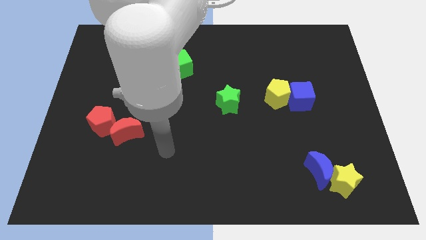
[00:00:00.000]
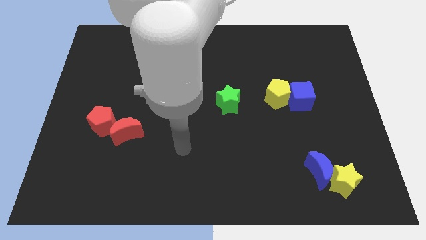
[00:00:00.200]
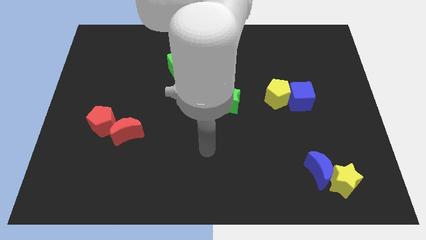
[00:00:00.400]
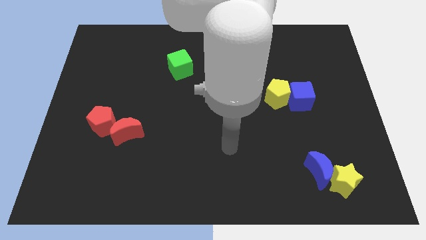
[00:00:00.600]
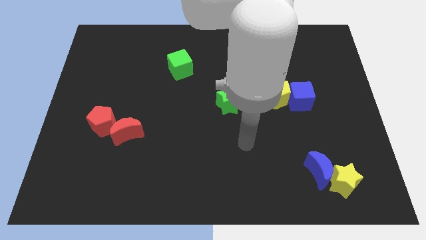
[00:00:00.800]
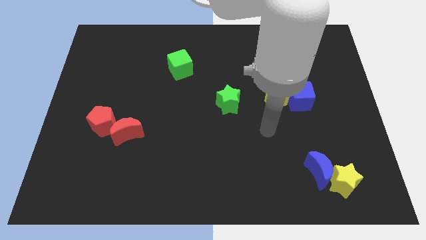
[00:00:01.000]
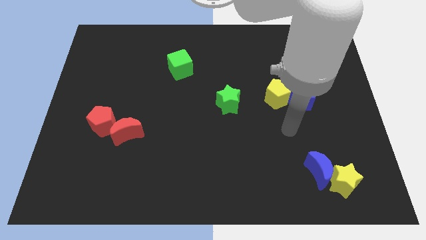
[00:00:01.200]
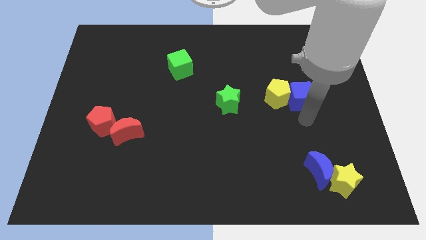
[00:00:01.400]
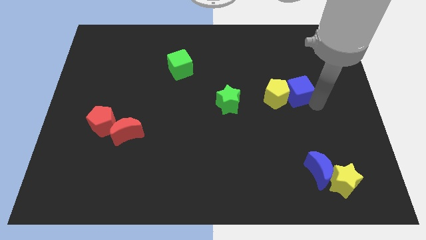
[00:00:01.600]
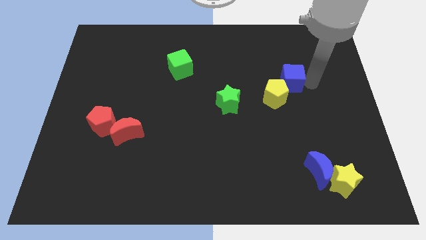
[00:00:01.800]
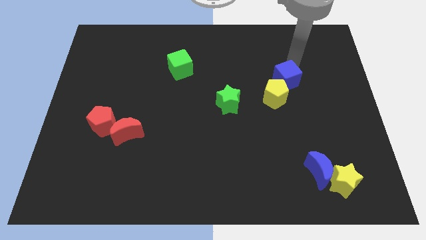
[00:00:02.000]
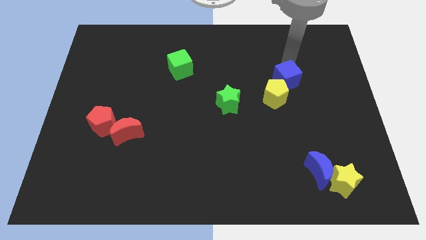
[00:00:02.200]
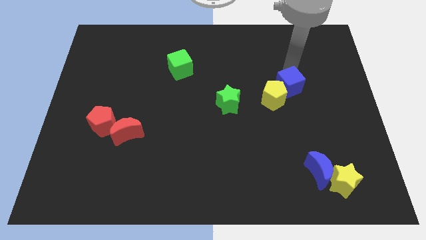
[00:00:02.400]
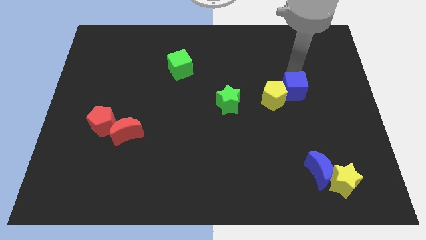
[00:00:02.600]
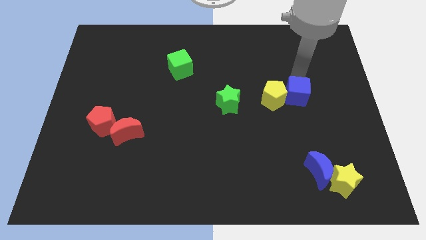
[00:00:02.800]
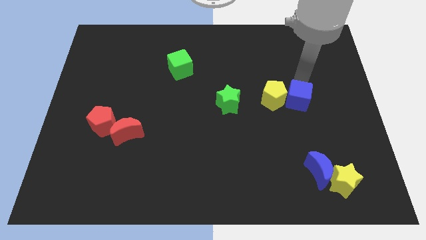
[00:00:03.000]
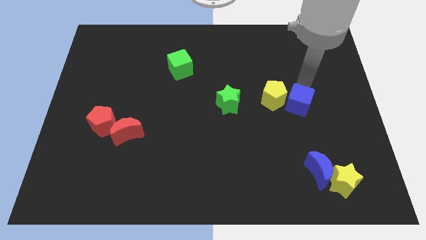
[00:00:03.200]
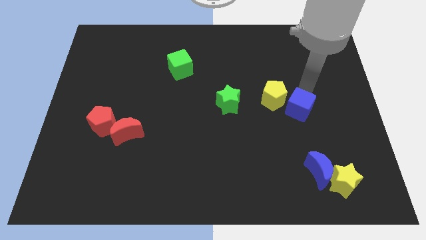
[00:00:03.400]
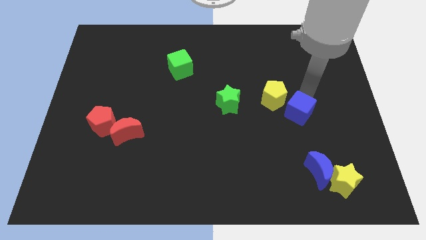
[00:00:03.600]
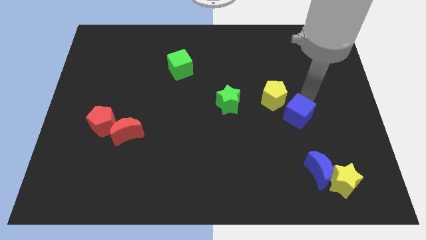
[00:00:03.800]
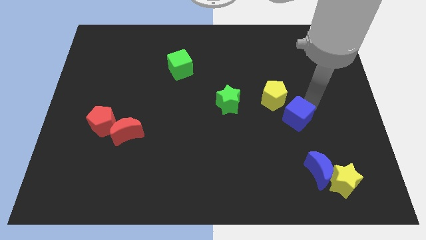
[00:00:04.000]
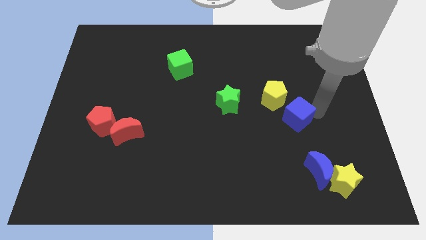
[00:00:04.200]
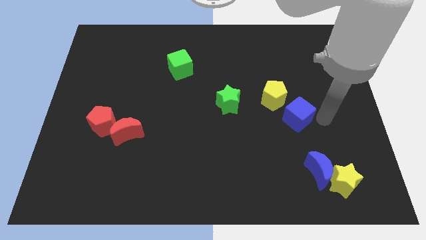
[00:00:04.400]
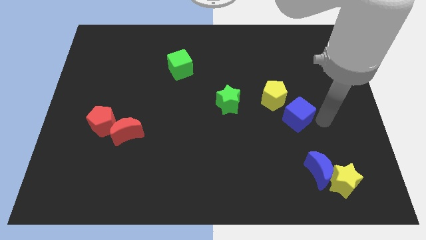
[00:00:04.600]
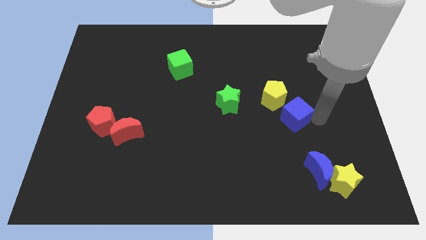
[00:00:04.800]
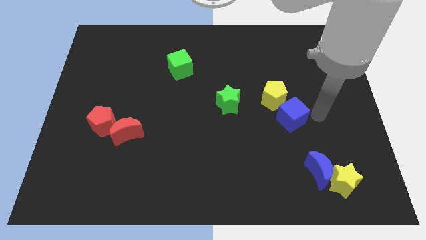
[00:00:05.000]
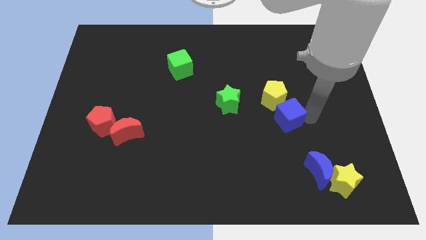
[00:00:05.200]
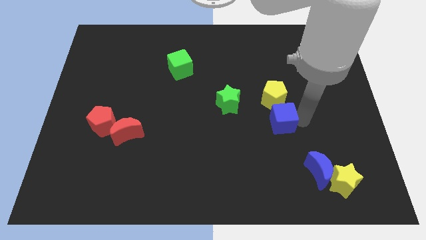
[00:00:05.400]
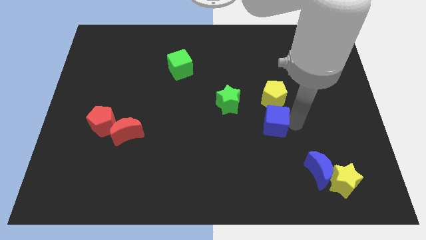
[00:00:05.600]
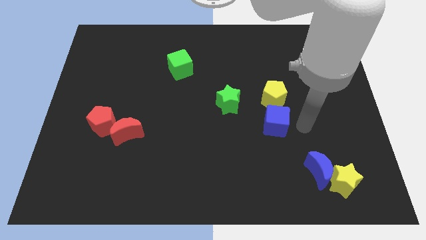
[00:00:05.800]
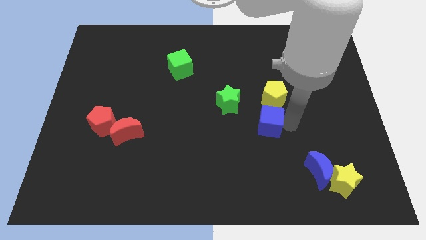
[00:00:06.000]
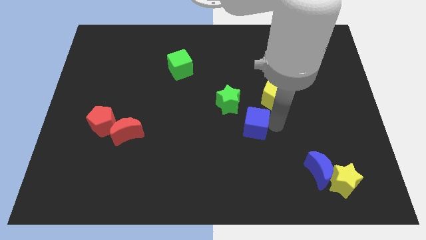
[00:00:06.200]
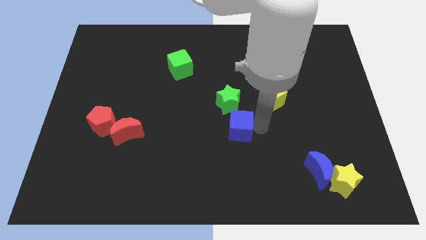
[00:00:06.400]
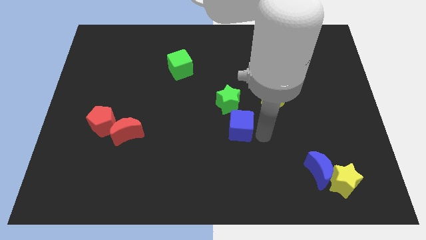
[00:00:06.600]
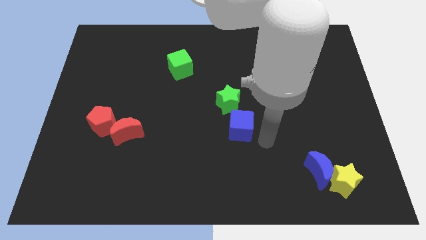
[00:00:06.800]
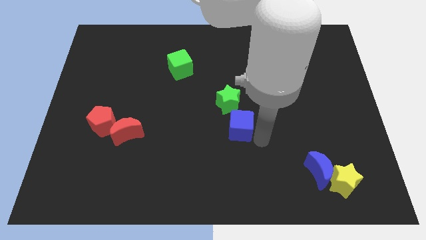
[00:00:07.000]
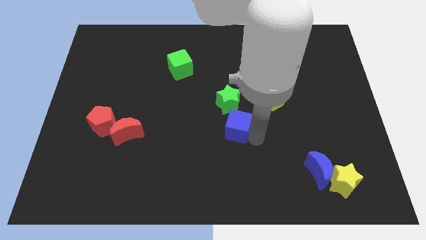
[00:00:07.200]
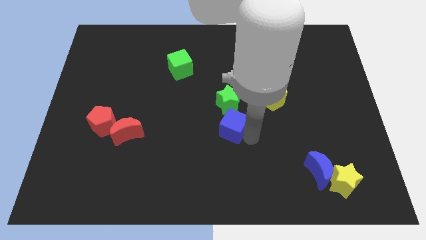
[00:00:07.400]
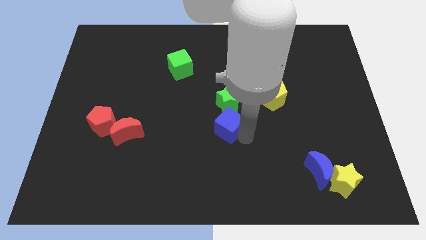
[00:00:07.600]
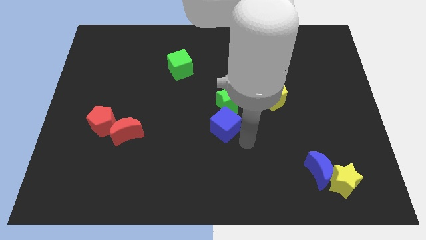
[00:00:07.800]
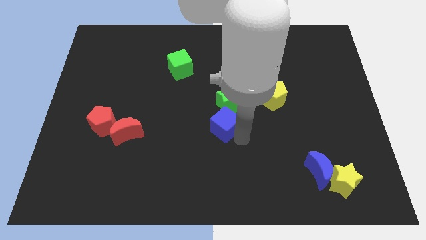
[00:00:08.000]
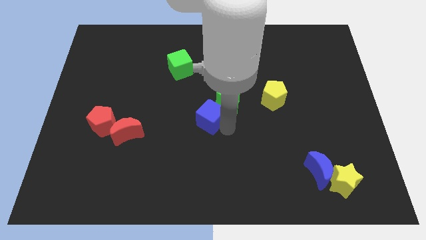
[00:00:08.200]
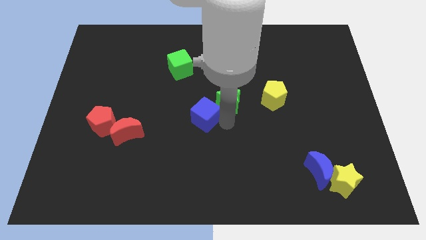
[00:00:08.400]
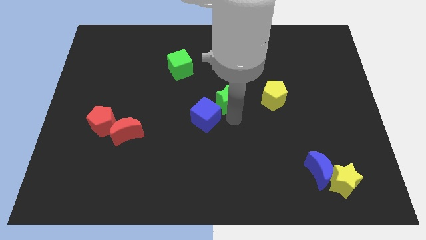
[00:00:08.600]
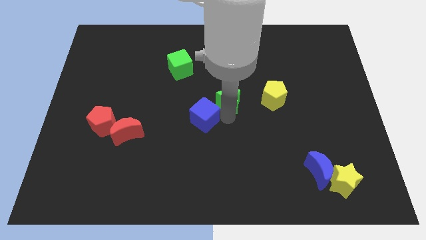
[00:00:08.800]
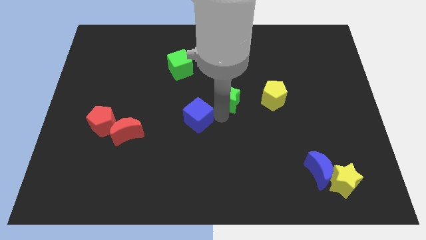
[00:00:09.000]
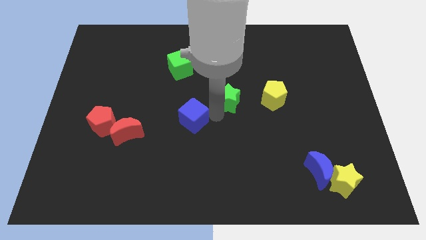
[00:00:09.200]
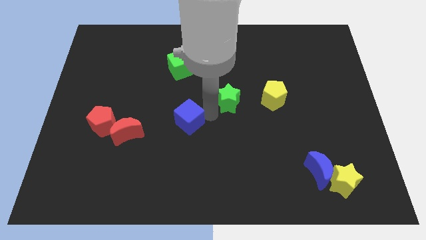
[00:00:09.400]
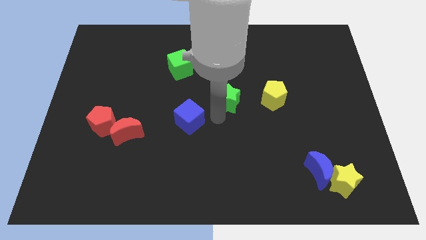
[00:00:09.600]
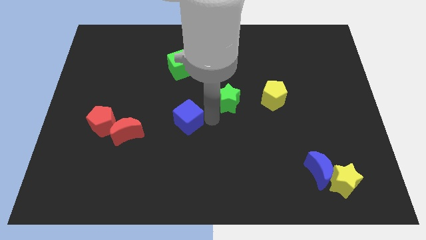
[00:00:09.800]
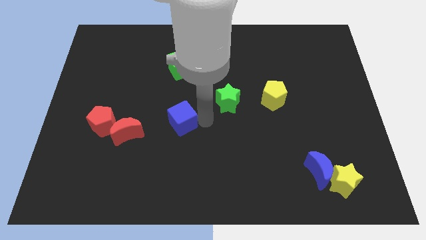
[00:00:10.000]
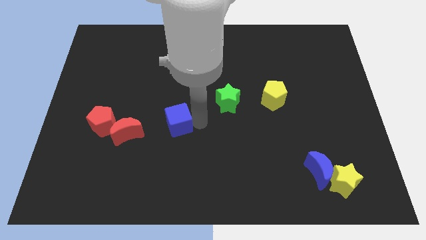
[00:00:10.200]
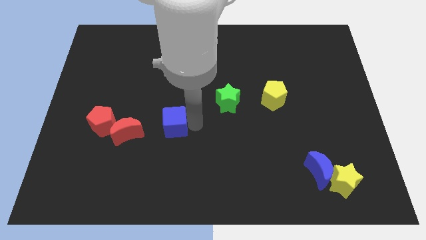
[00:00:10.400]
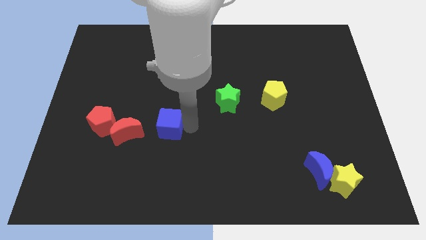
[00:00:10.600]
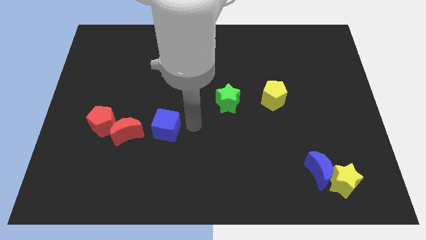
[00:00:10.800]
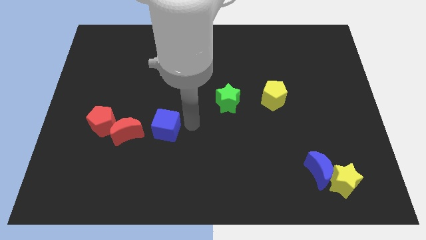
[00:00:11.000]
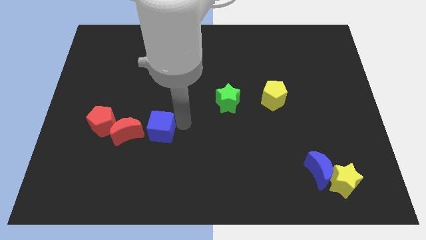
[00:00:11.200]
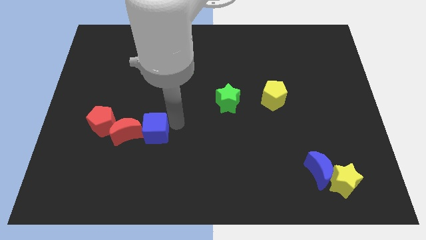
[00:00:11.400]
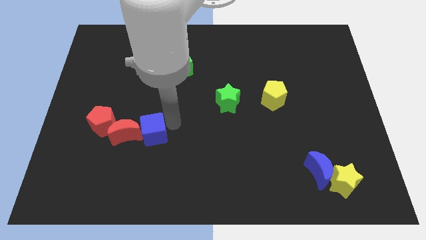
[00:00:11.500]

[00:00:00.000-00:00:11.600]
put the blue cube to the red moon

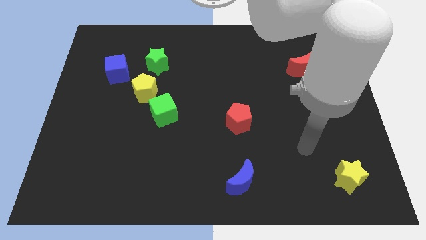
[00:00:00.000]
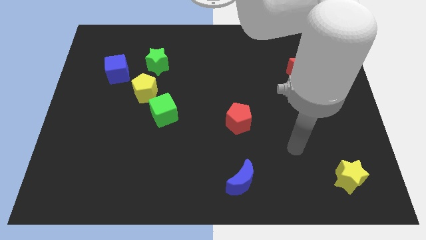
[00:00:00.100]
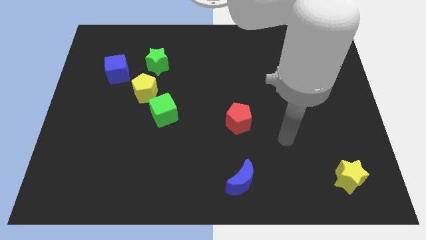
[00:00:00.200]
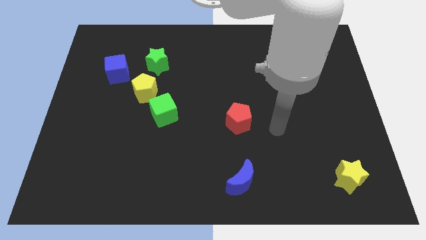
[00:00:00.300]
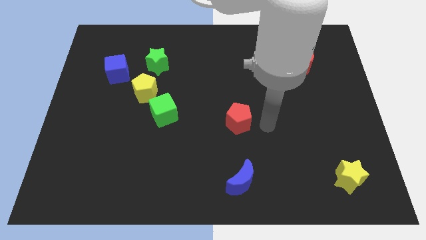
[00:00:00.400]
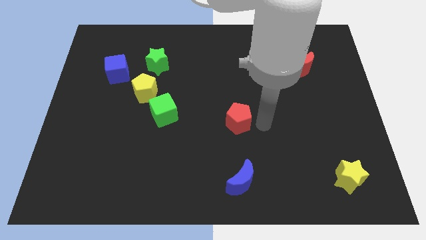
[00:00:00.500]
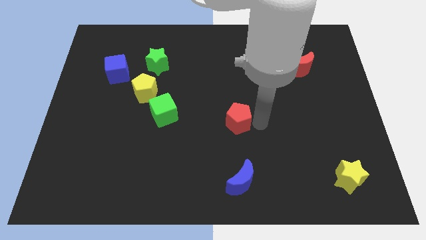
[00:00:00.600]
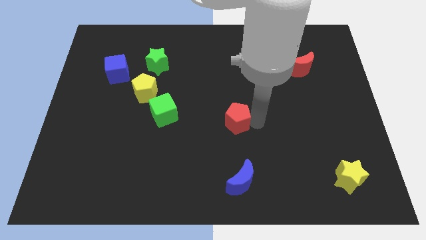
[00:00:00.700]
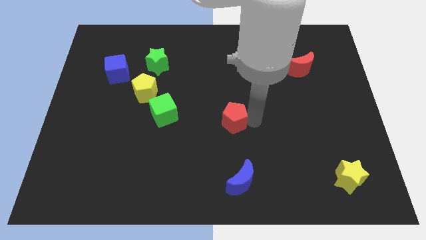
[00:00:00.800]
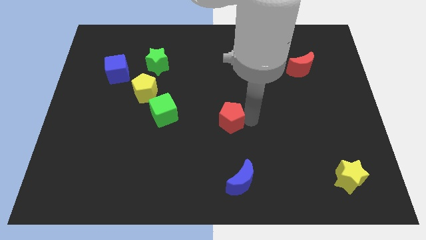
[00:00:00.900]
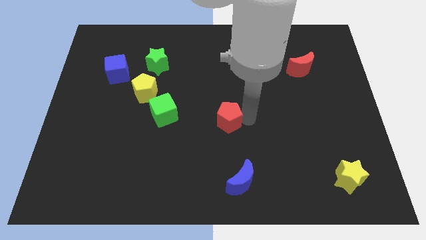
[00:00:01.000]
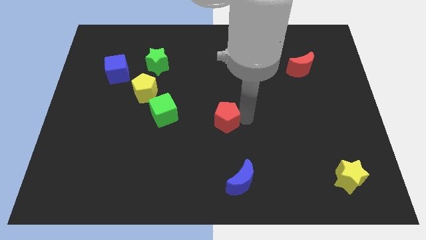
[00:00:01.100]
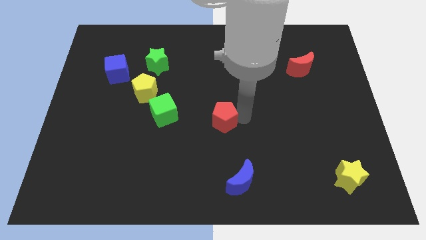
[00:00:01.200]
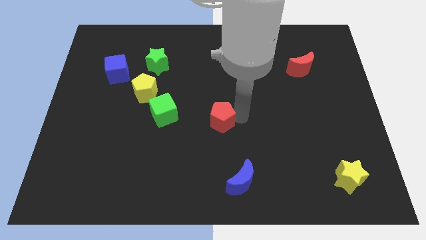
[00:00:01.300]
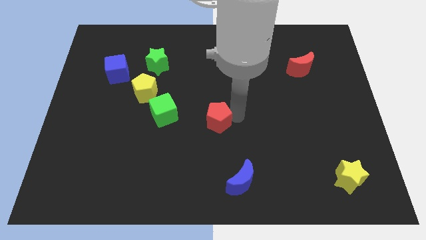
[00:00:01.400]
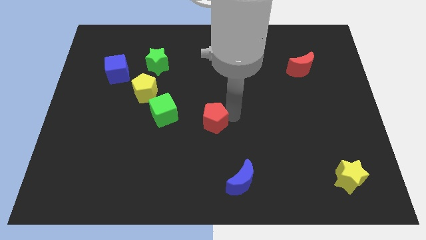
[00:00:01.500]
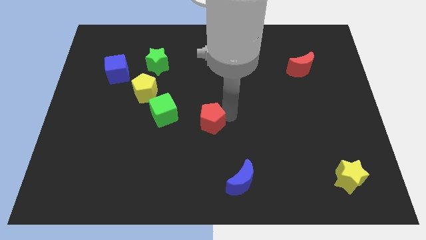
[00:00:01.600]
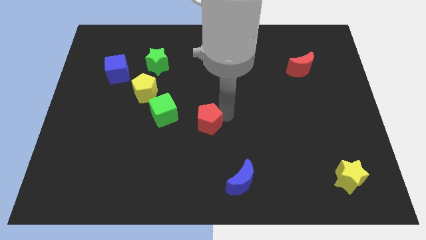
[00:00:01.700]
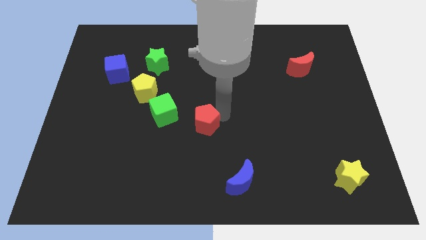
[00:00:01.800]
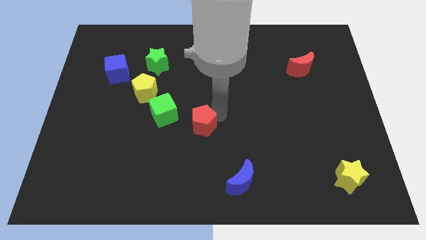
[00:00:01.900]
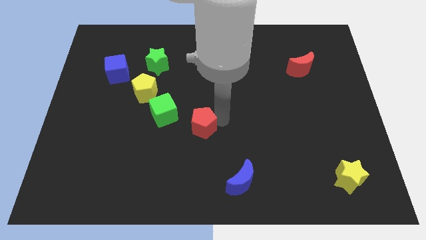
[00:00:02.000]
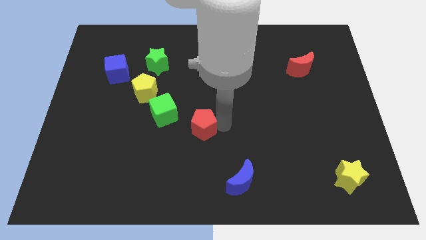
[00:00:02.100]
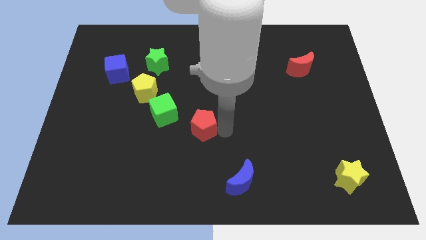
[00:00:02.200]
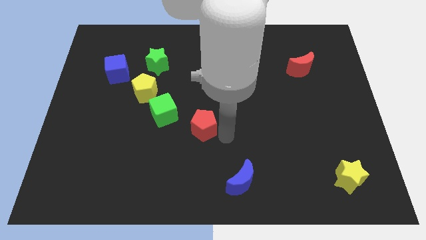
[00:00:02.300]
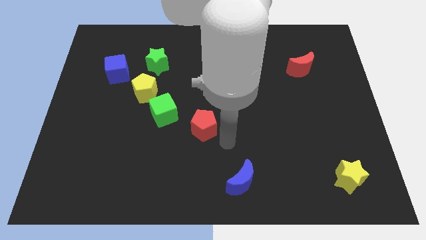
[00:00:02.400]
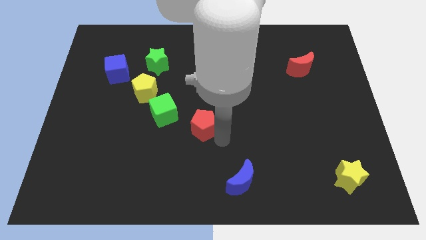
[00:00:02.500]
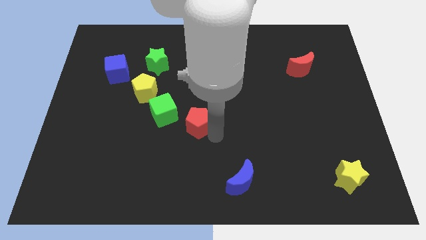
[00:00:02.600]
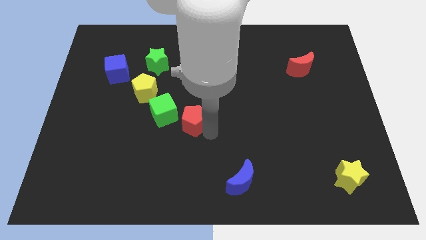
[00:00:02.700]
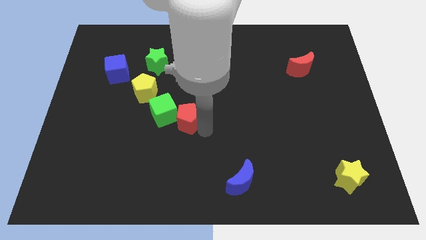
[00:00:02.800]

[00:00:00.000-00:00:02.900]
slide the red pentagon to the green cube
